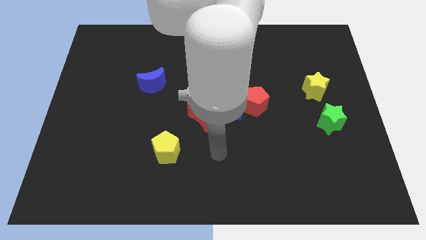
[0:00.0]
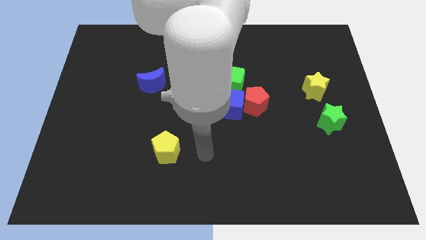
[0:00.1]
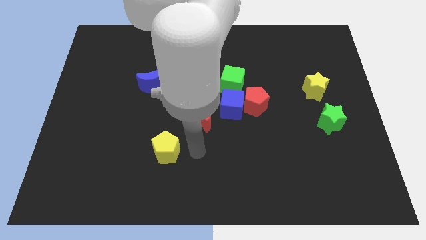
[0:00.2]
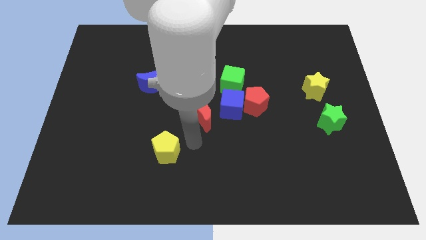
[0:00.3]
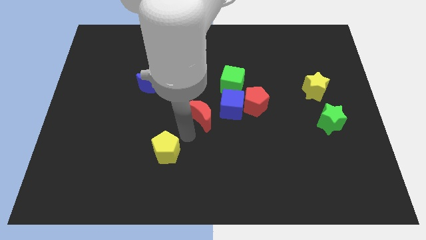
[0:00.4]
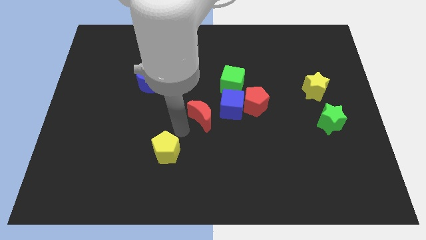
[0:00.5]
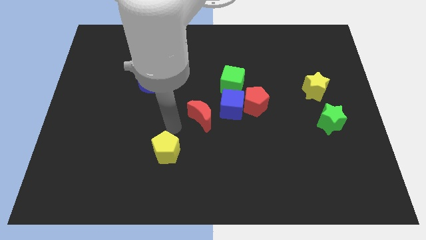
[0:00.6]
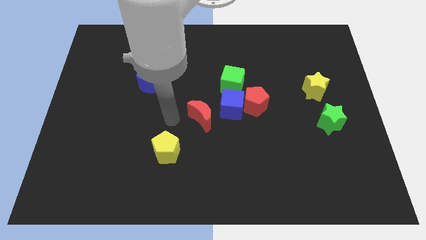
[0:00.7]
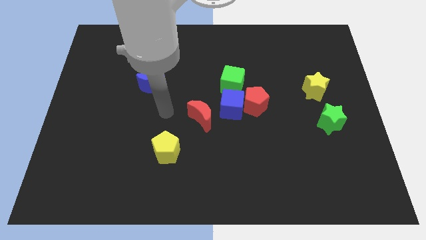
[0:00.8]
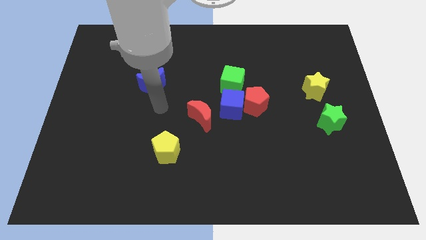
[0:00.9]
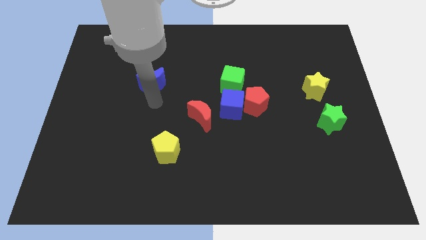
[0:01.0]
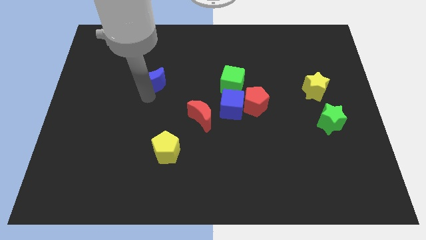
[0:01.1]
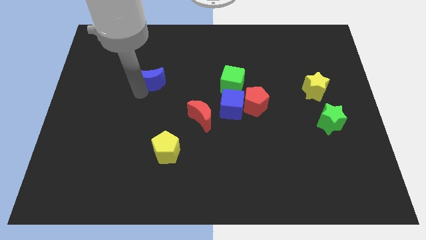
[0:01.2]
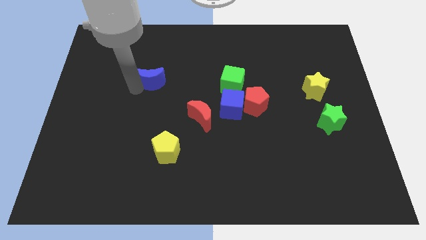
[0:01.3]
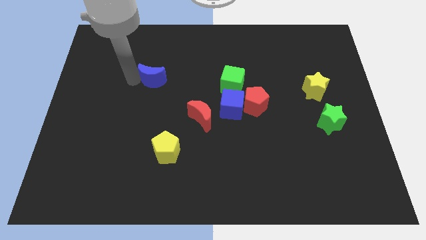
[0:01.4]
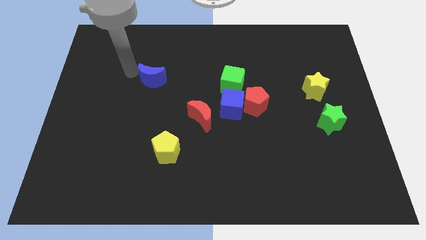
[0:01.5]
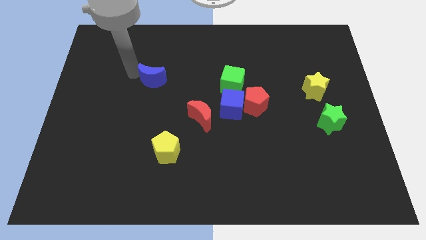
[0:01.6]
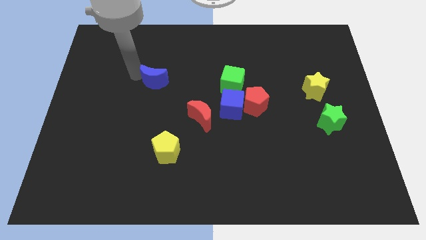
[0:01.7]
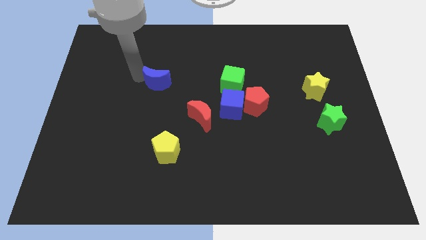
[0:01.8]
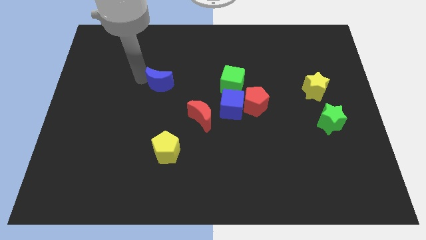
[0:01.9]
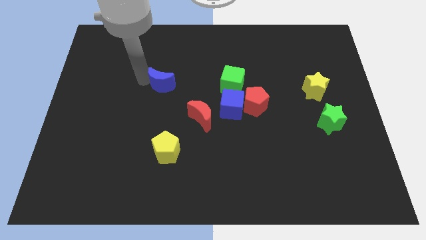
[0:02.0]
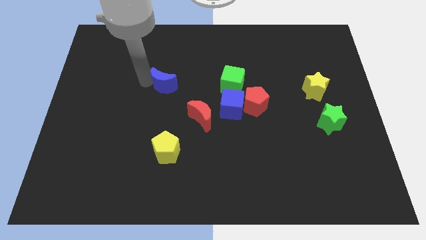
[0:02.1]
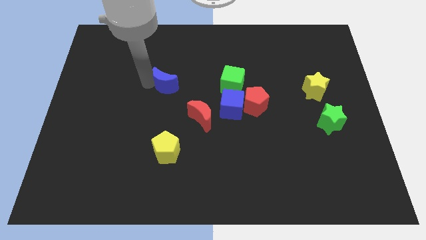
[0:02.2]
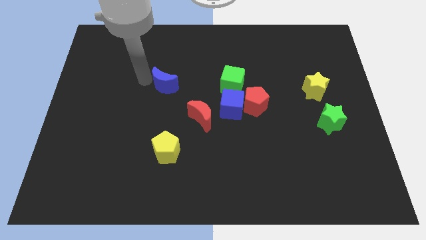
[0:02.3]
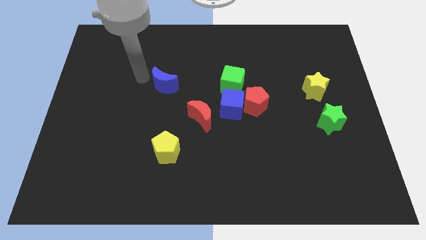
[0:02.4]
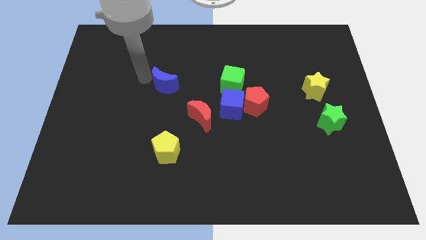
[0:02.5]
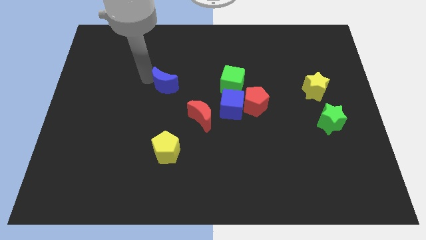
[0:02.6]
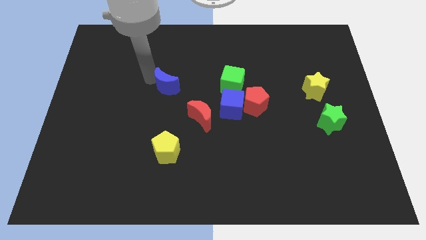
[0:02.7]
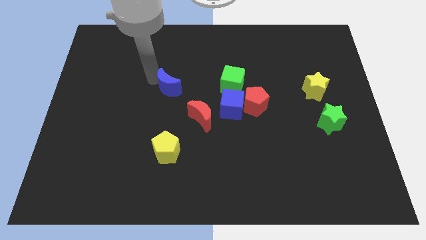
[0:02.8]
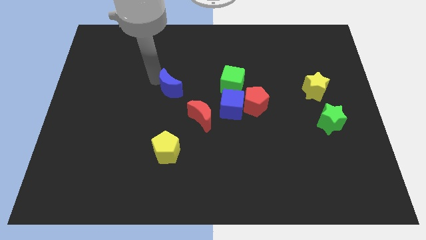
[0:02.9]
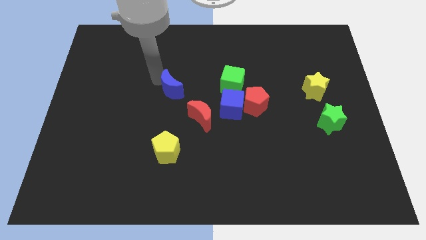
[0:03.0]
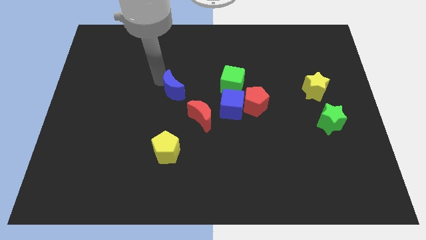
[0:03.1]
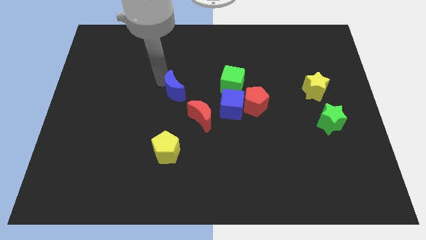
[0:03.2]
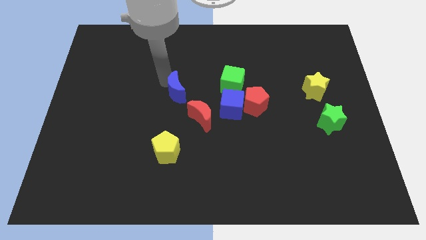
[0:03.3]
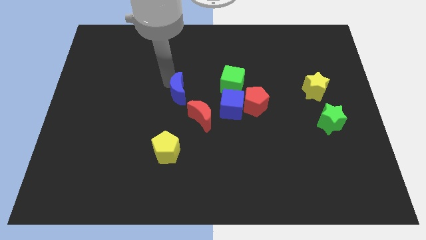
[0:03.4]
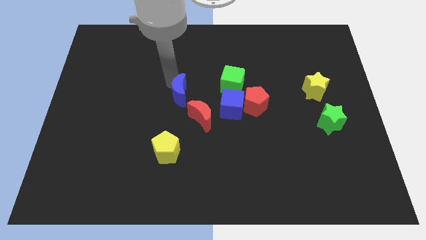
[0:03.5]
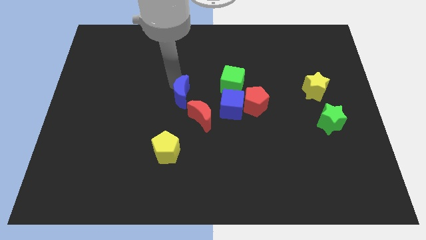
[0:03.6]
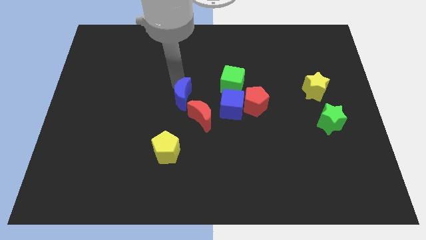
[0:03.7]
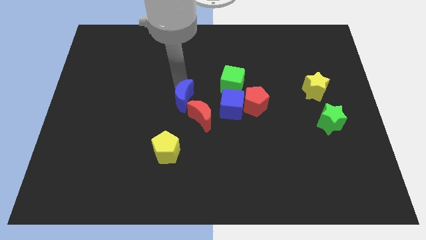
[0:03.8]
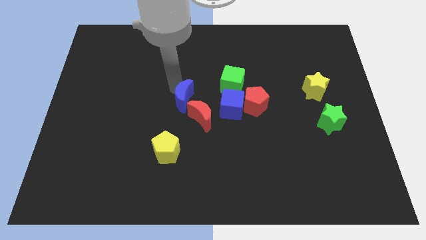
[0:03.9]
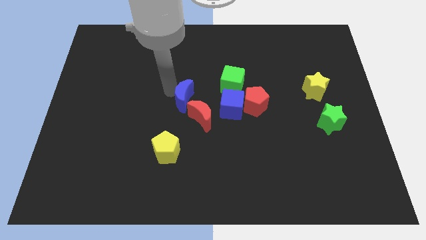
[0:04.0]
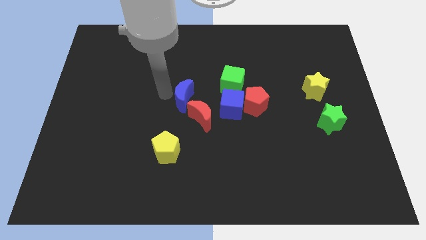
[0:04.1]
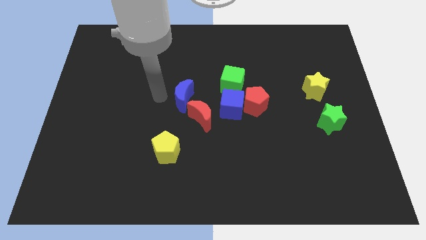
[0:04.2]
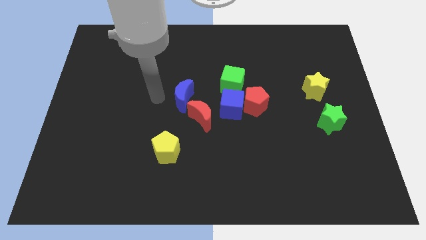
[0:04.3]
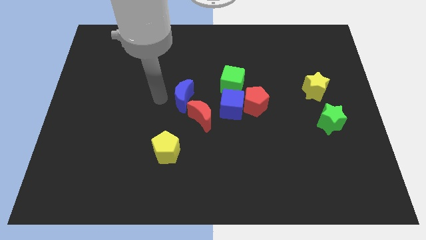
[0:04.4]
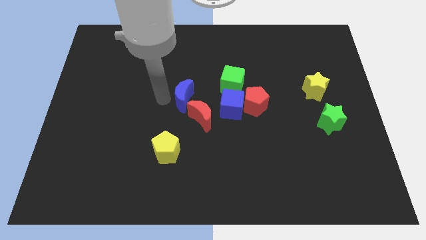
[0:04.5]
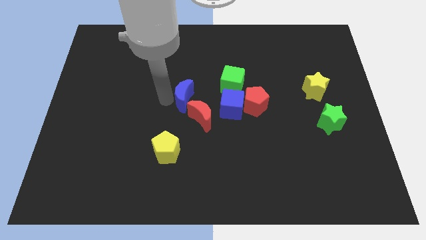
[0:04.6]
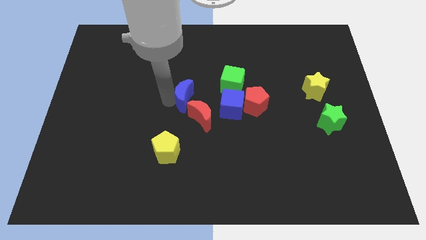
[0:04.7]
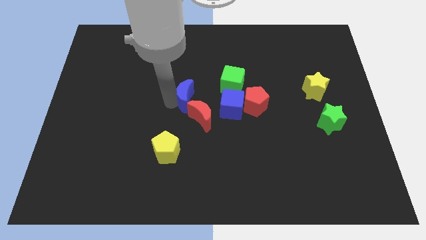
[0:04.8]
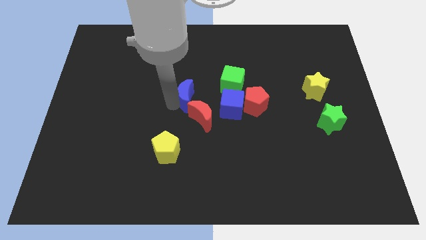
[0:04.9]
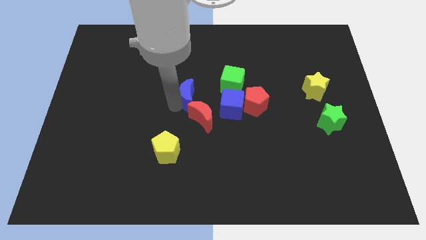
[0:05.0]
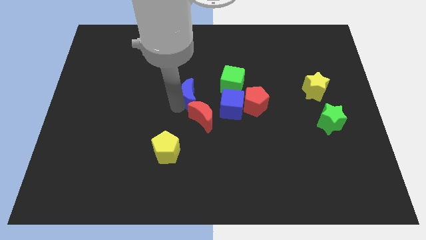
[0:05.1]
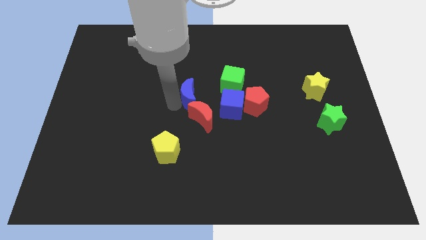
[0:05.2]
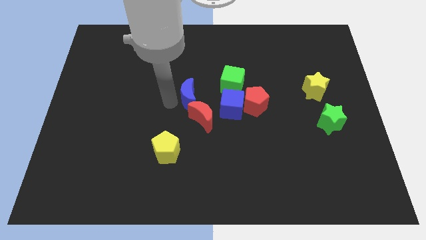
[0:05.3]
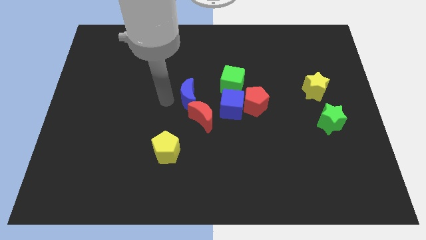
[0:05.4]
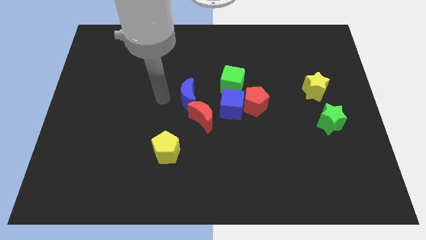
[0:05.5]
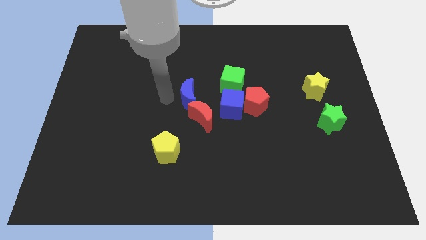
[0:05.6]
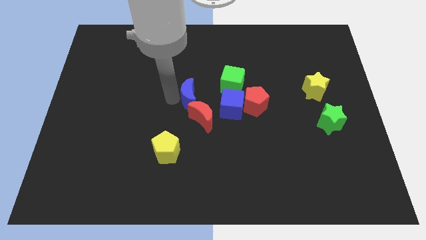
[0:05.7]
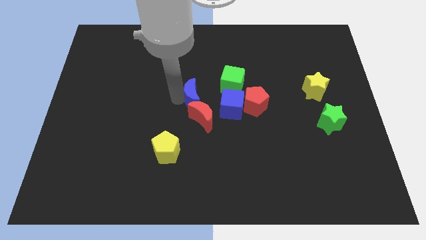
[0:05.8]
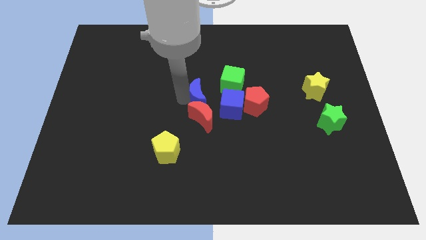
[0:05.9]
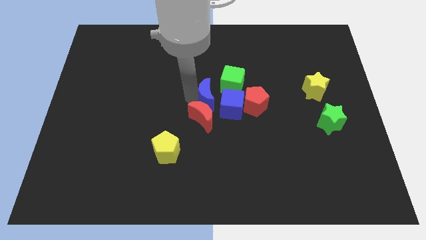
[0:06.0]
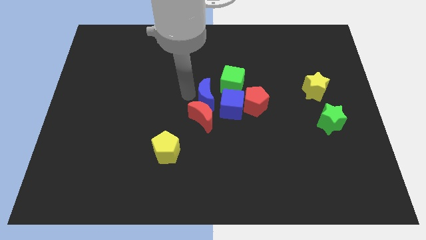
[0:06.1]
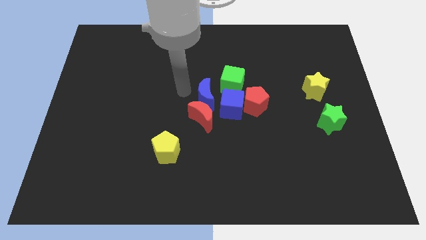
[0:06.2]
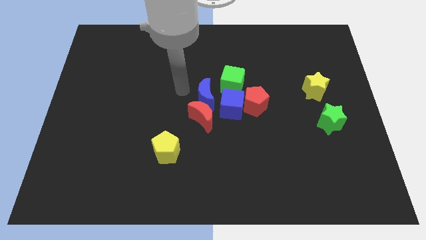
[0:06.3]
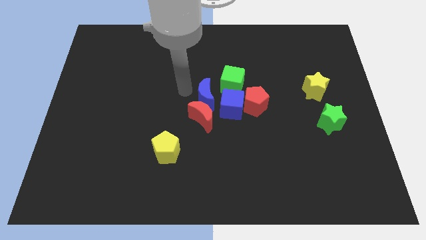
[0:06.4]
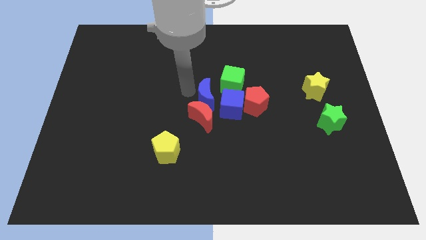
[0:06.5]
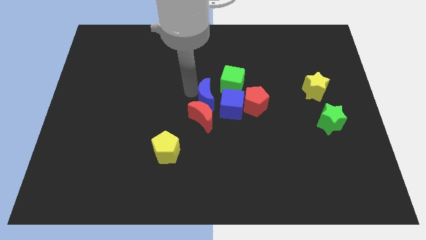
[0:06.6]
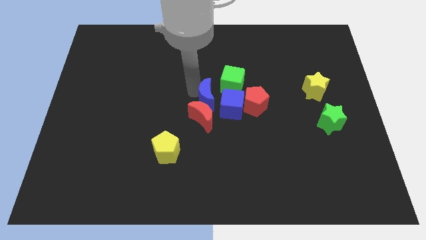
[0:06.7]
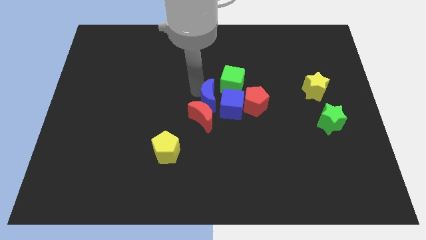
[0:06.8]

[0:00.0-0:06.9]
slide the blue moon towards the blue cube

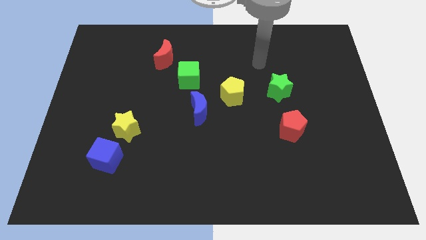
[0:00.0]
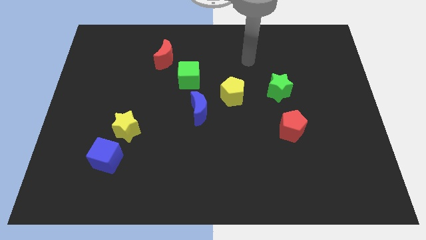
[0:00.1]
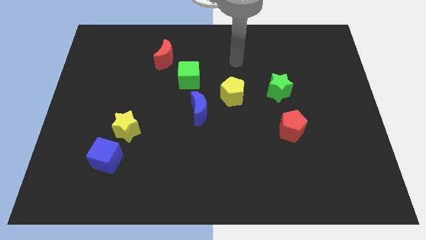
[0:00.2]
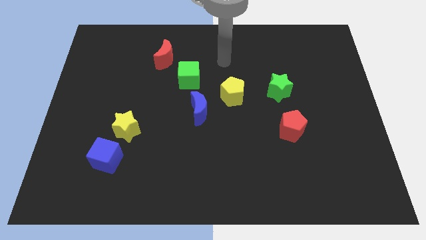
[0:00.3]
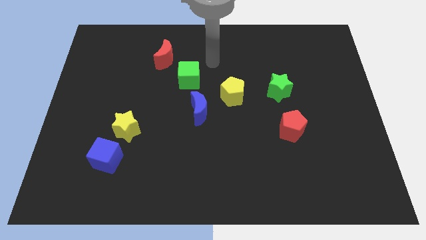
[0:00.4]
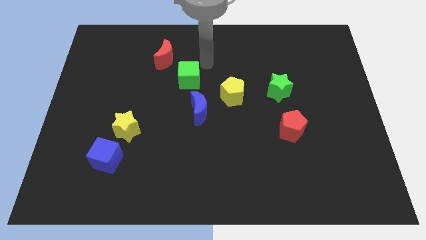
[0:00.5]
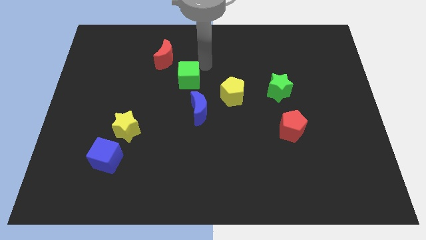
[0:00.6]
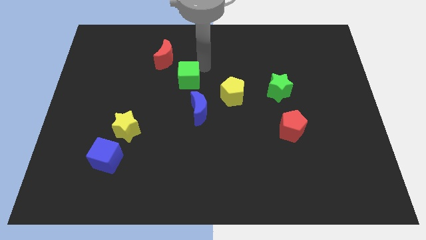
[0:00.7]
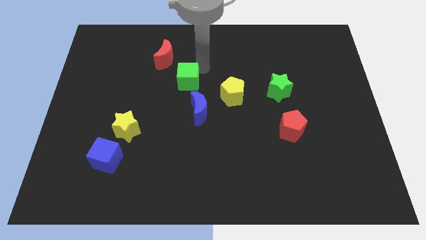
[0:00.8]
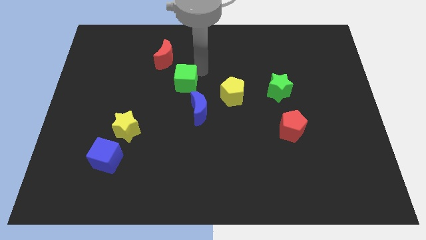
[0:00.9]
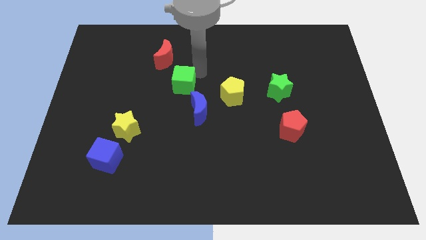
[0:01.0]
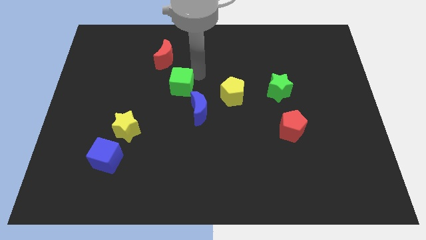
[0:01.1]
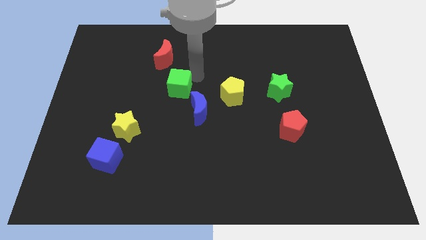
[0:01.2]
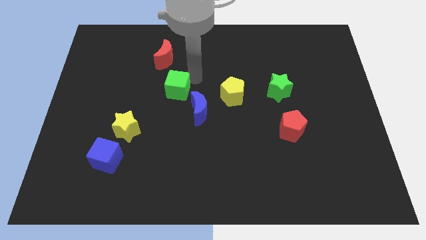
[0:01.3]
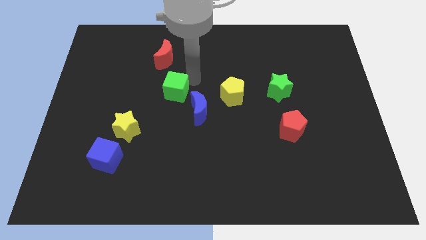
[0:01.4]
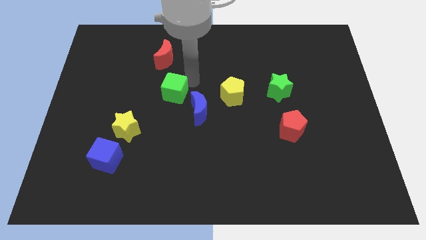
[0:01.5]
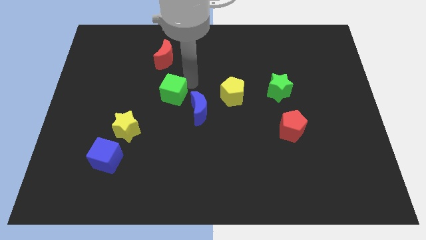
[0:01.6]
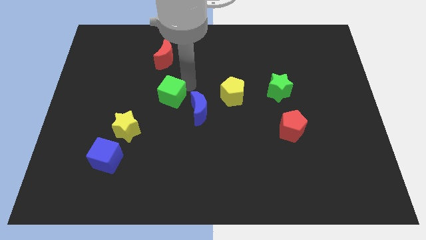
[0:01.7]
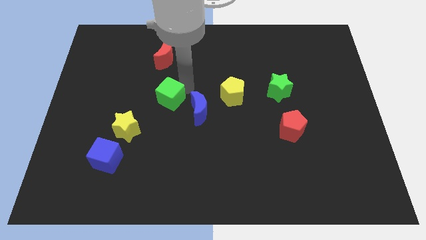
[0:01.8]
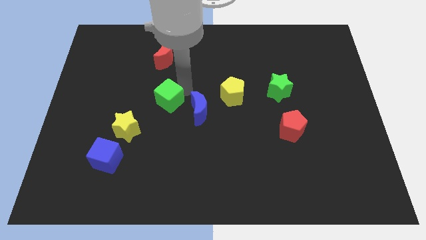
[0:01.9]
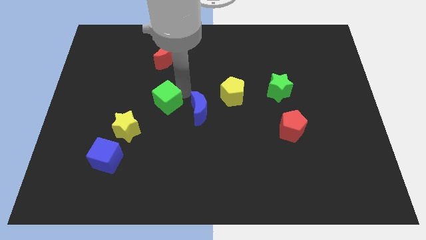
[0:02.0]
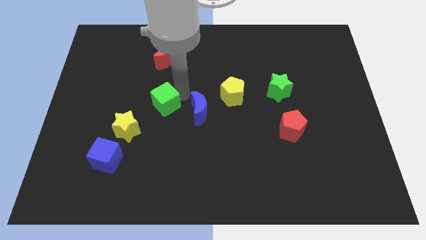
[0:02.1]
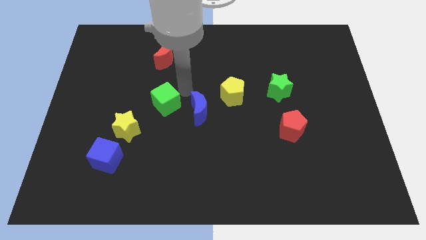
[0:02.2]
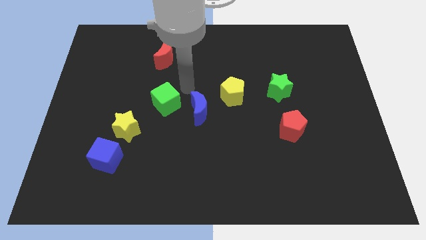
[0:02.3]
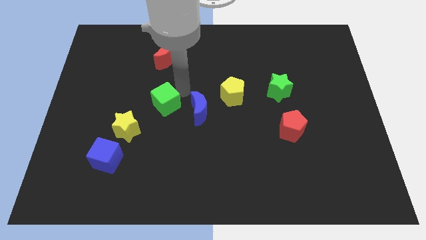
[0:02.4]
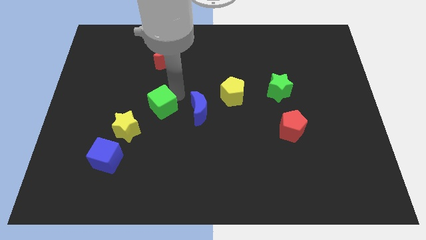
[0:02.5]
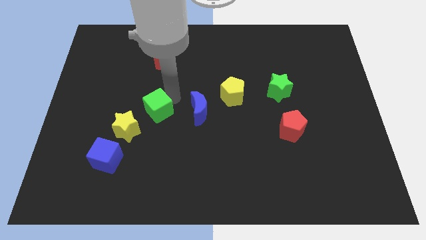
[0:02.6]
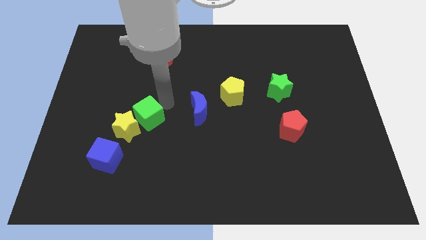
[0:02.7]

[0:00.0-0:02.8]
put the green cube to the yellow star
